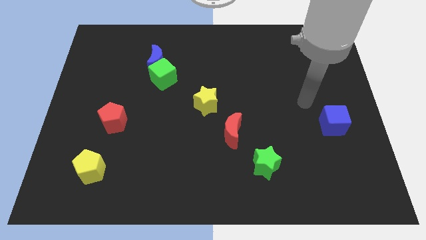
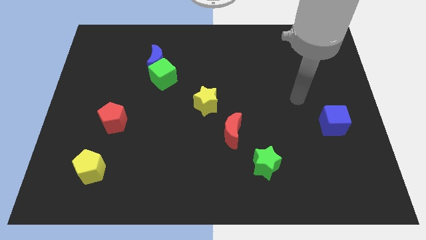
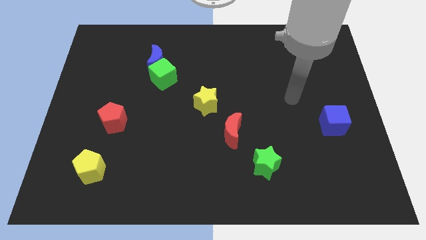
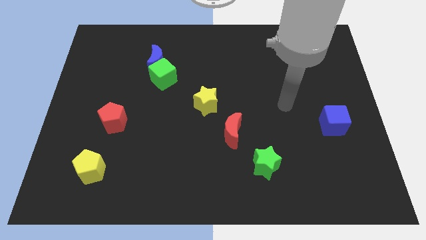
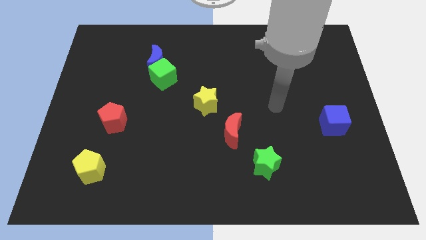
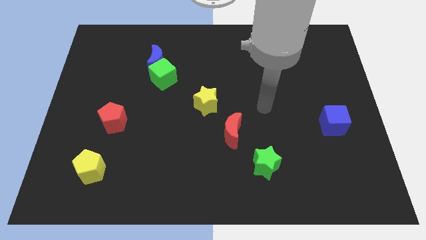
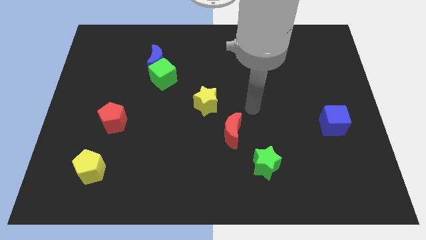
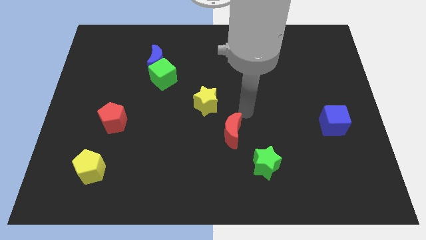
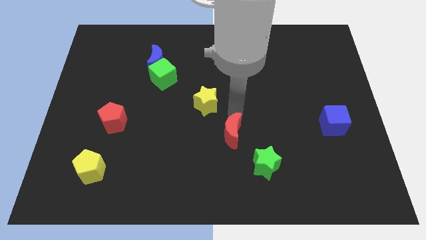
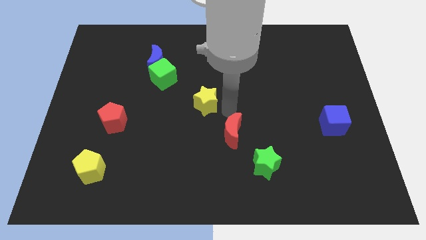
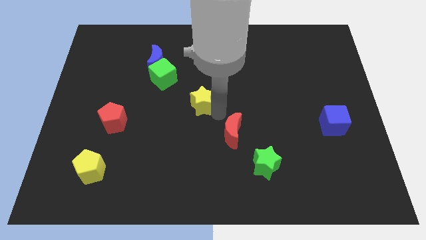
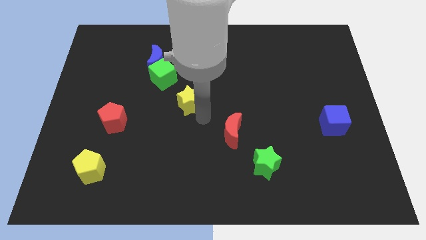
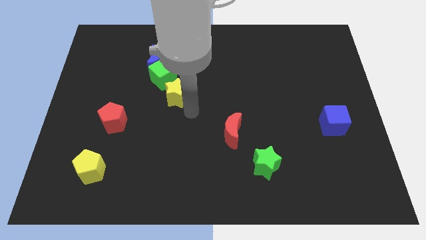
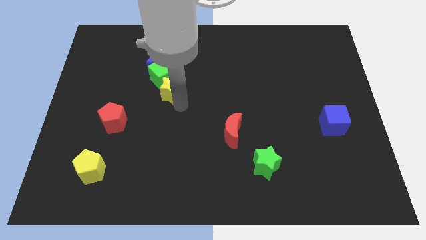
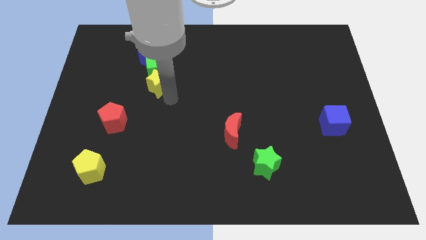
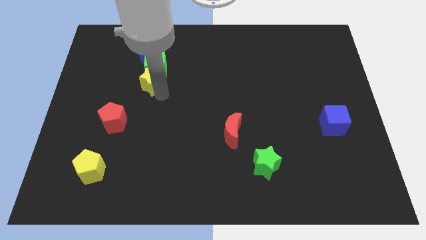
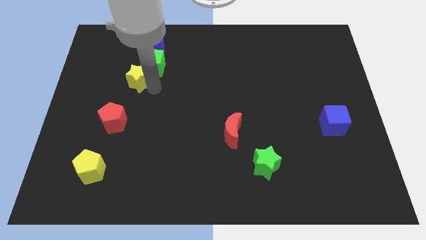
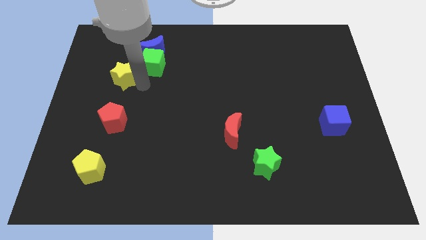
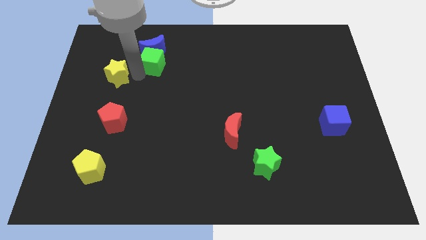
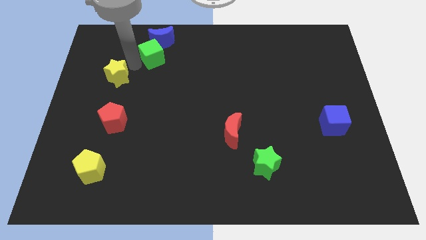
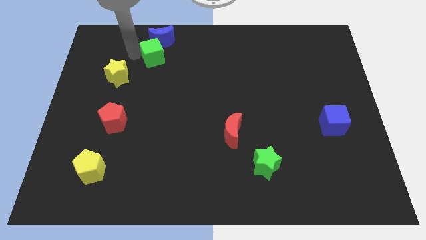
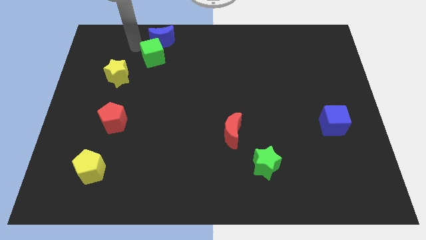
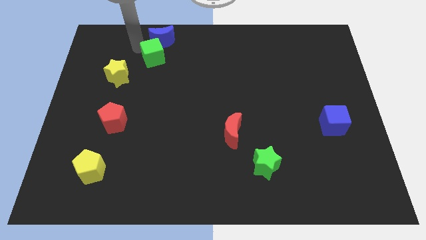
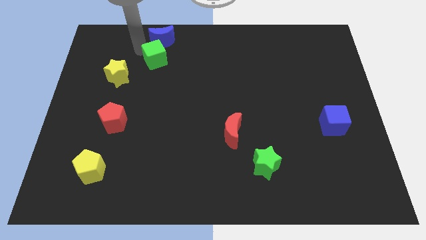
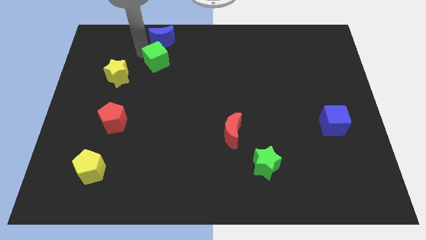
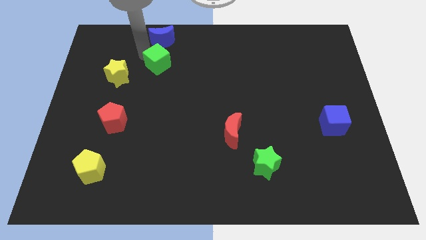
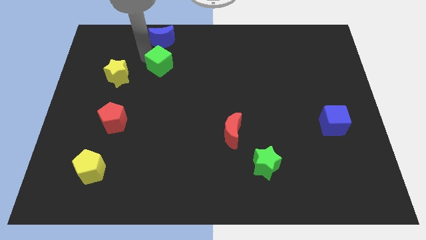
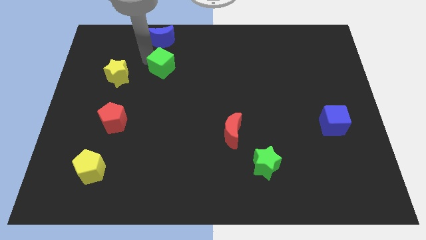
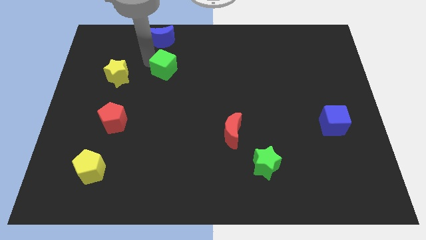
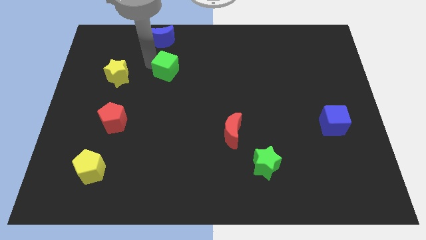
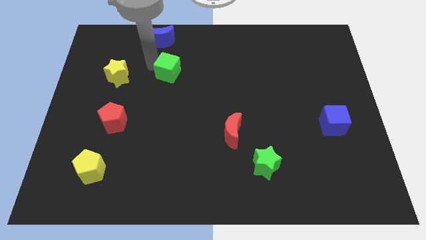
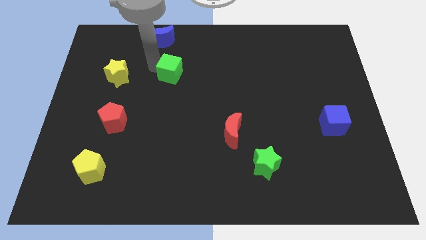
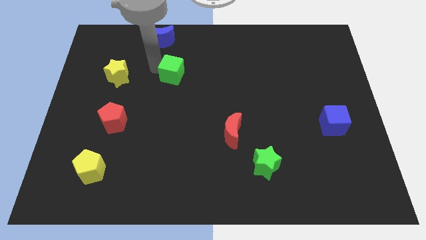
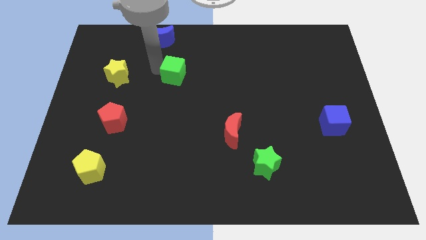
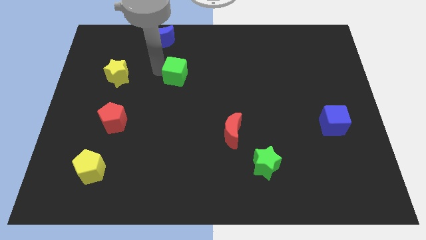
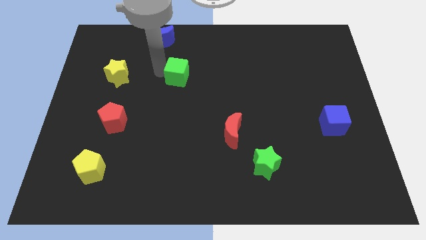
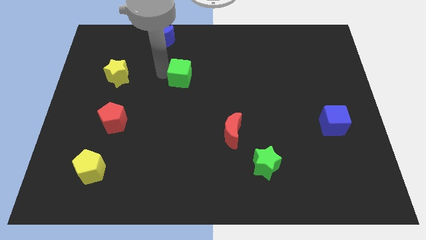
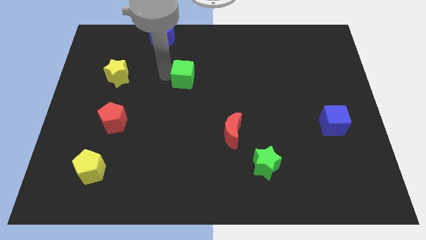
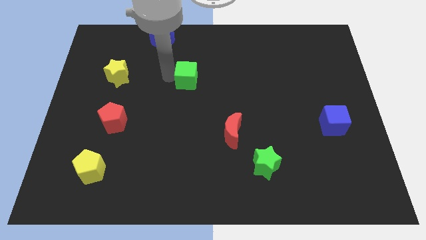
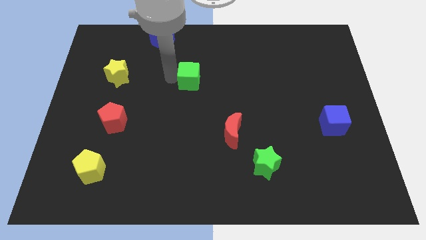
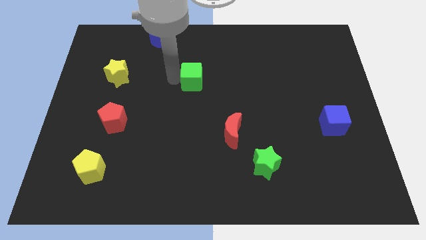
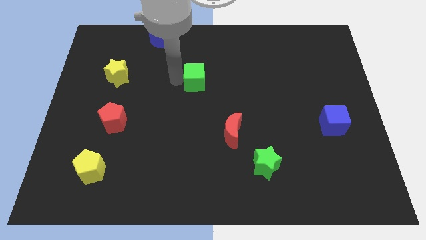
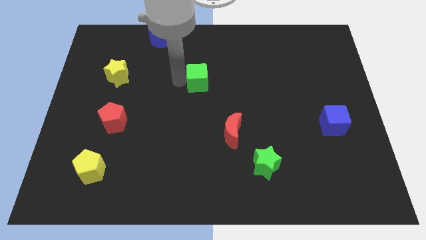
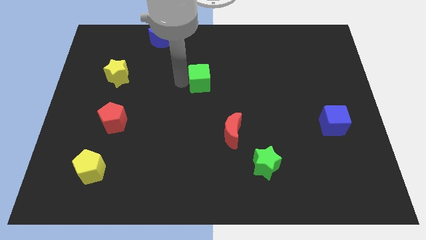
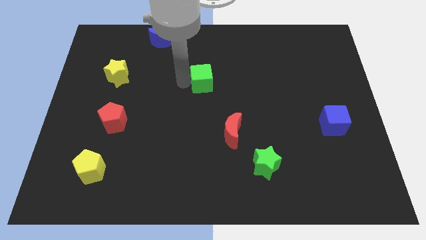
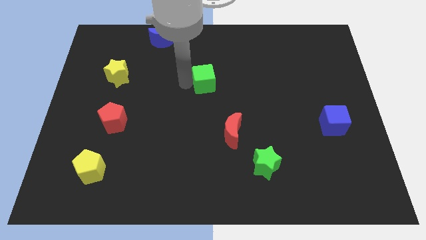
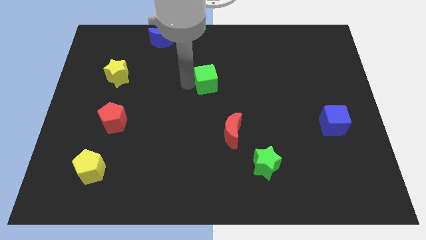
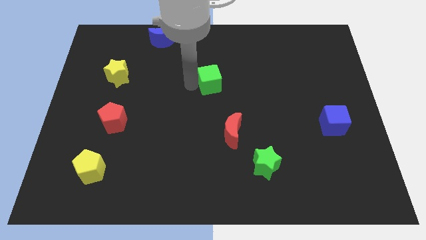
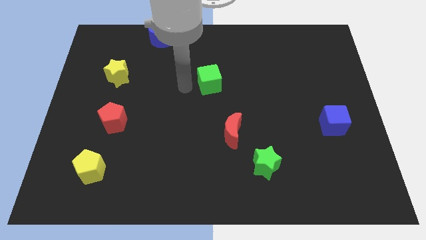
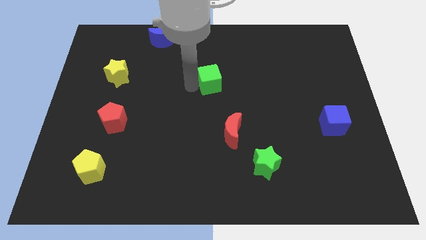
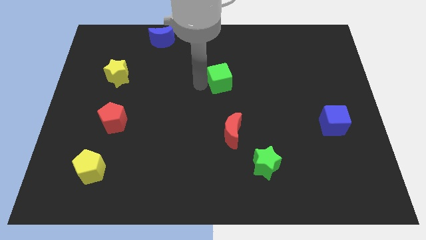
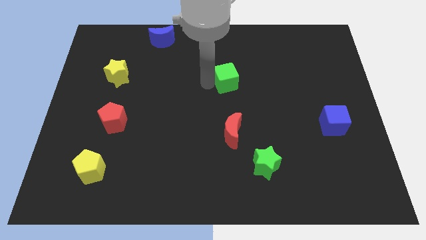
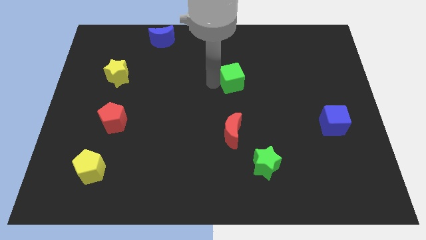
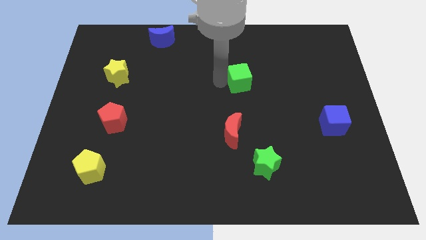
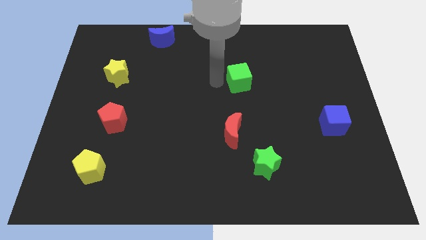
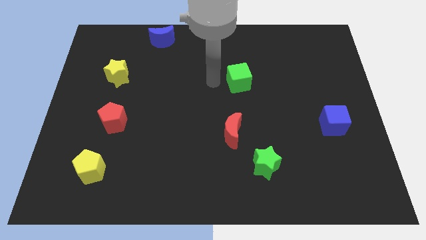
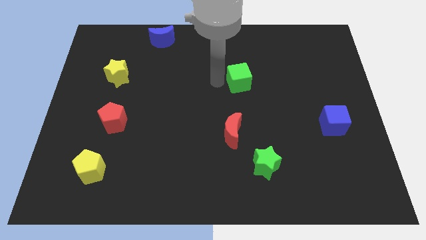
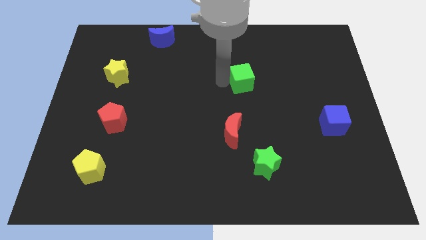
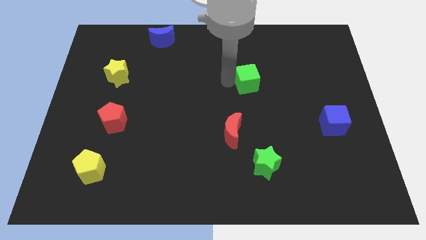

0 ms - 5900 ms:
slide the green cube to the right

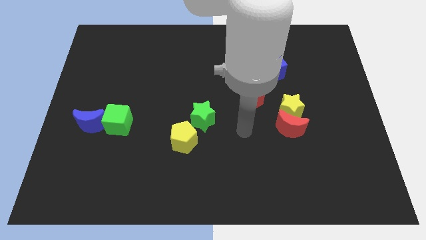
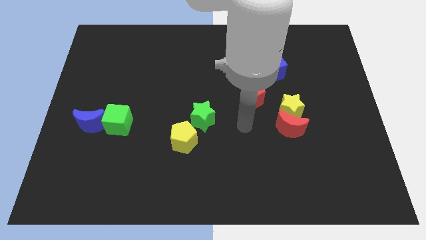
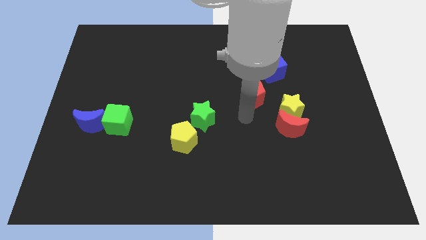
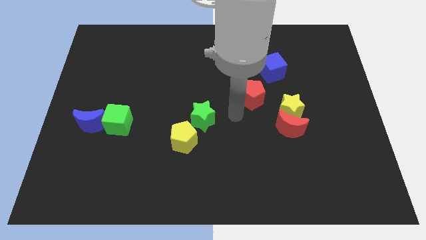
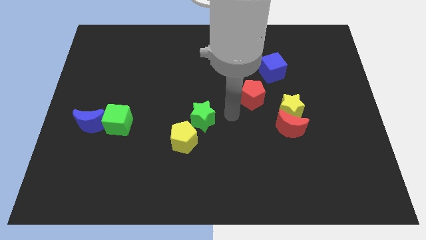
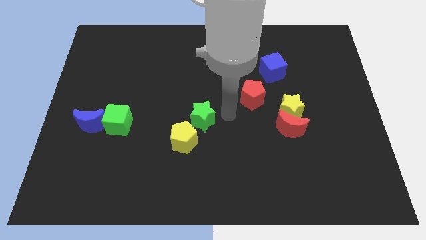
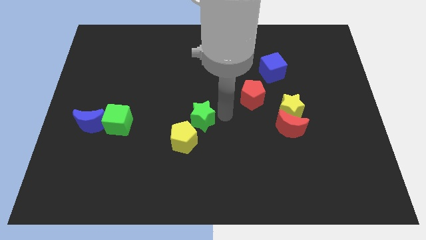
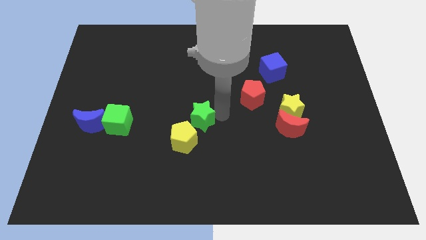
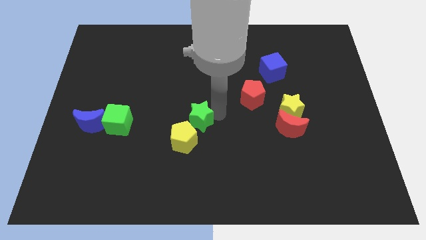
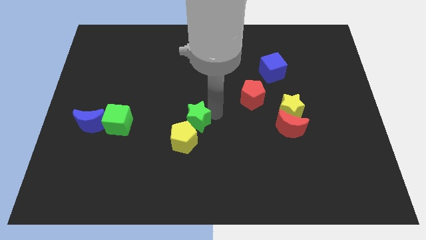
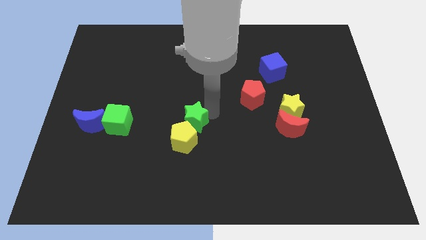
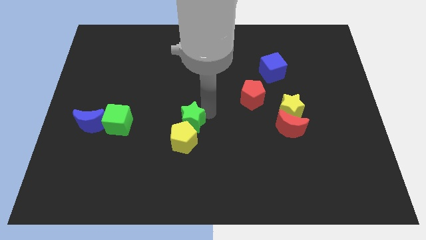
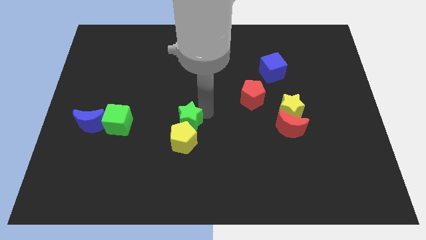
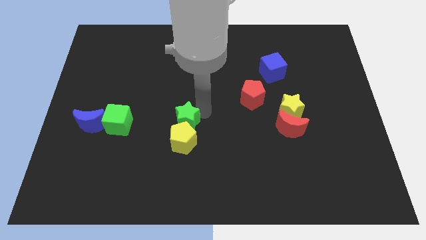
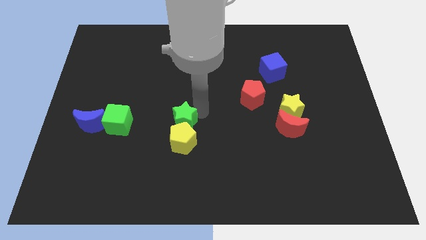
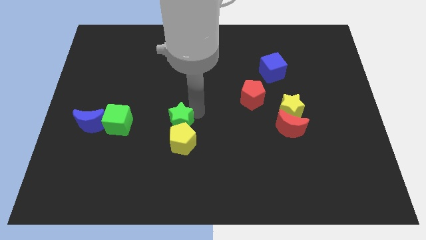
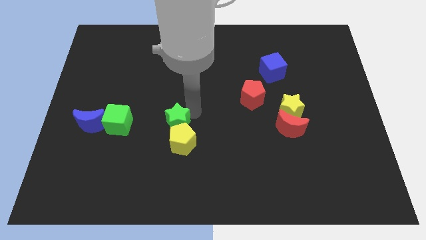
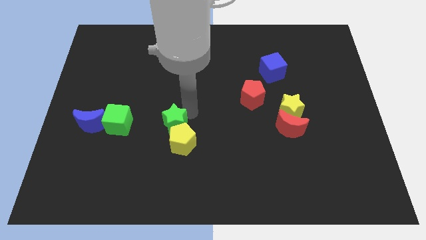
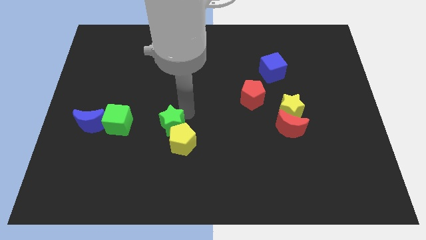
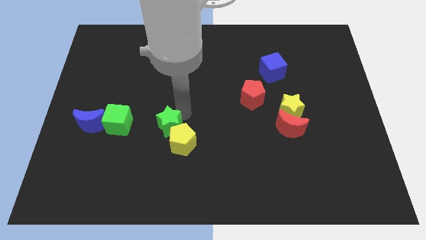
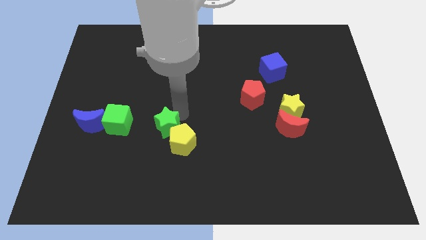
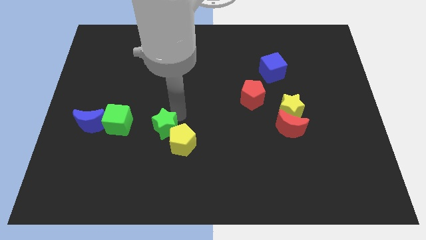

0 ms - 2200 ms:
slightly push the green star down and left diagonally
